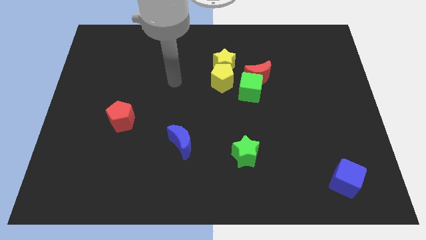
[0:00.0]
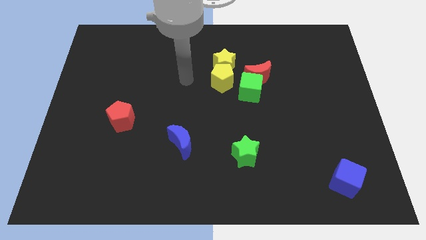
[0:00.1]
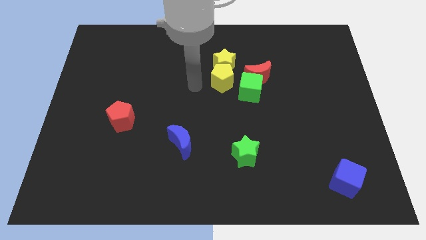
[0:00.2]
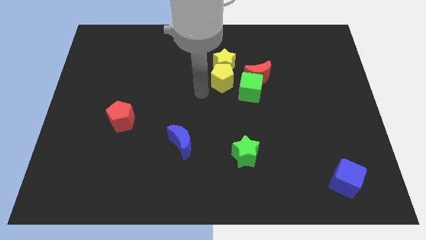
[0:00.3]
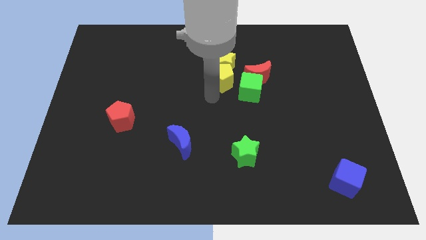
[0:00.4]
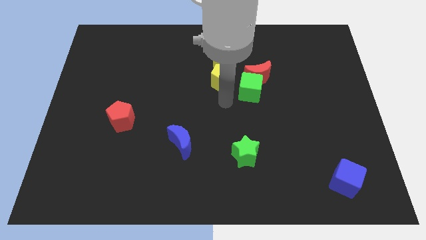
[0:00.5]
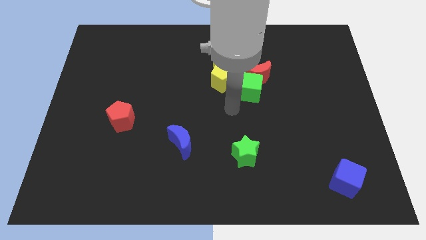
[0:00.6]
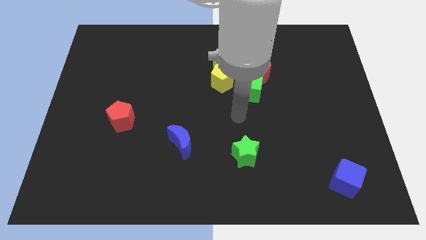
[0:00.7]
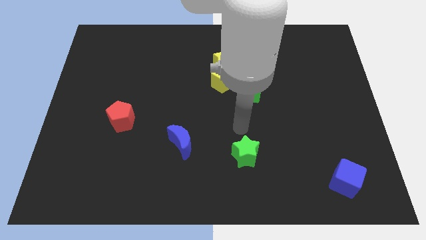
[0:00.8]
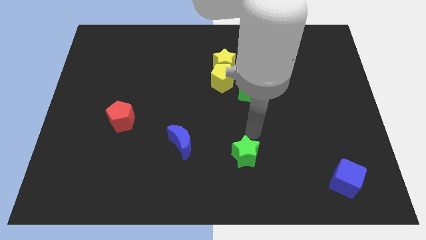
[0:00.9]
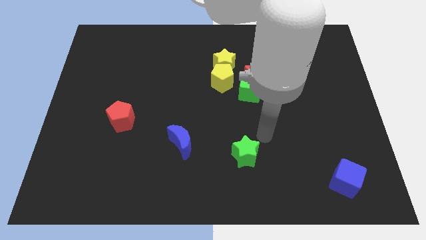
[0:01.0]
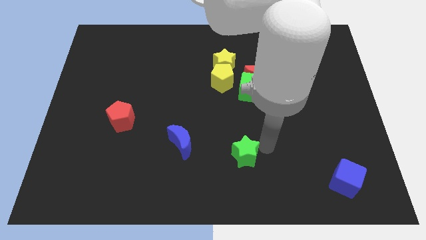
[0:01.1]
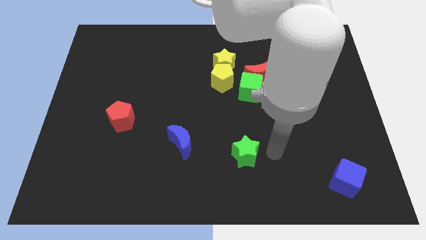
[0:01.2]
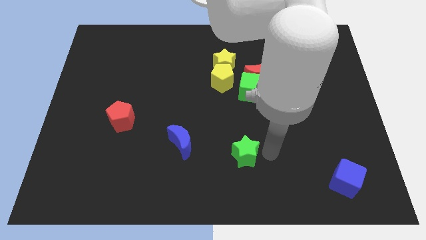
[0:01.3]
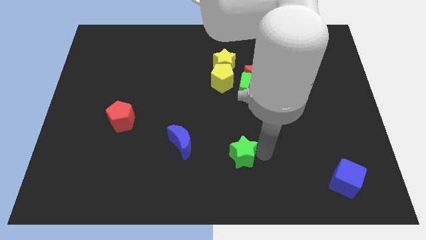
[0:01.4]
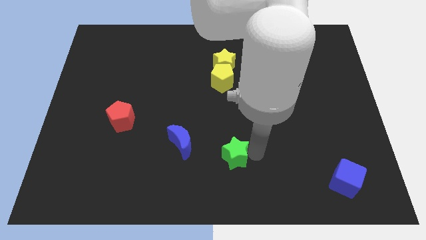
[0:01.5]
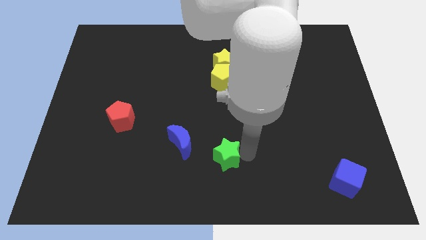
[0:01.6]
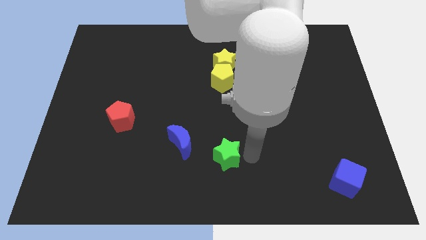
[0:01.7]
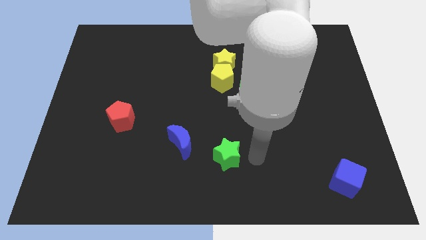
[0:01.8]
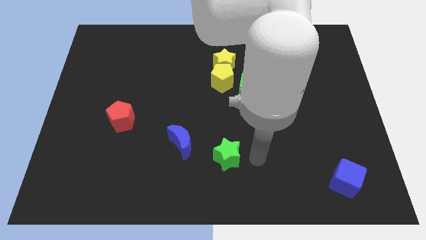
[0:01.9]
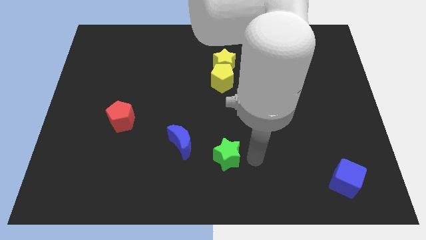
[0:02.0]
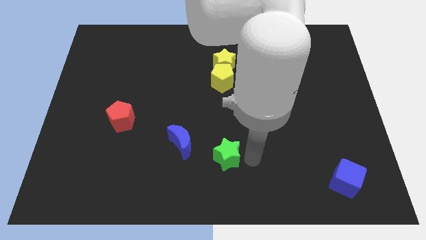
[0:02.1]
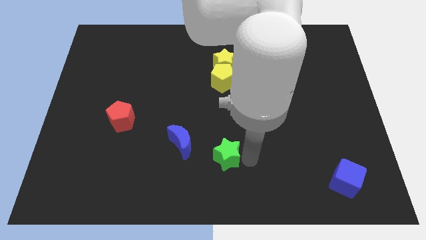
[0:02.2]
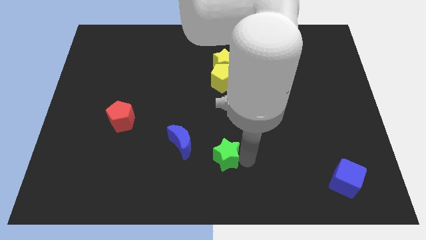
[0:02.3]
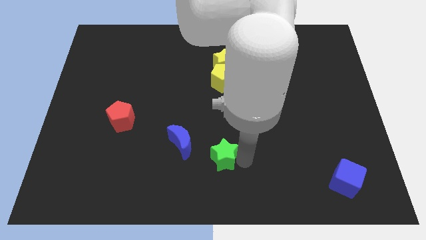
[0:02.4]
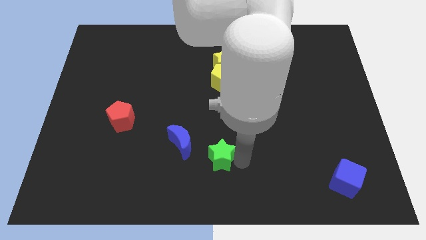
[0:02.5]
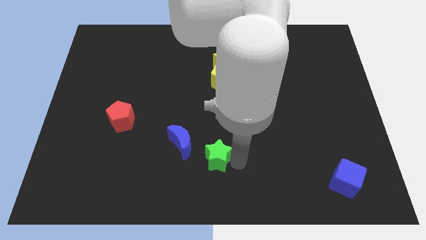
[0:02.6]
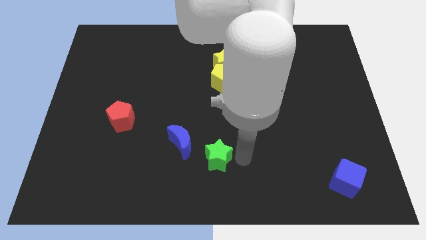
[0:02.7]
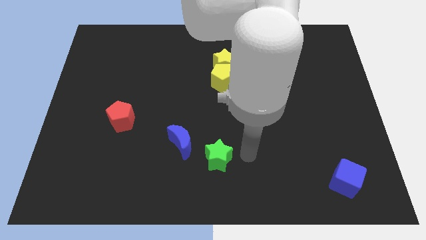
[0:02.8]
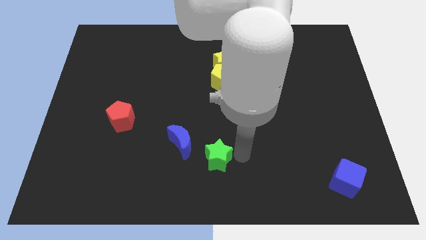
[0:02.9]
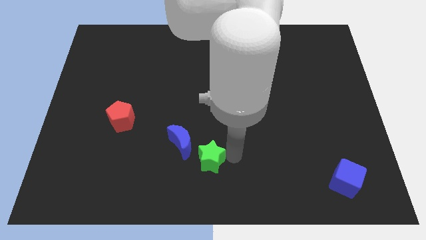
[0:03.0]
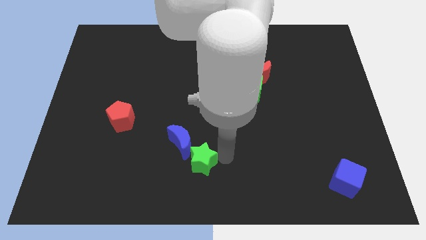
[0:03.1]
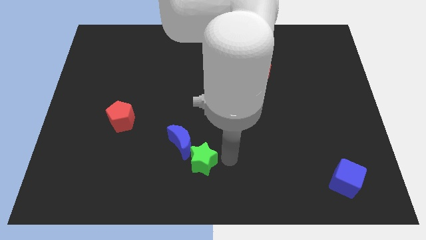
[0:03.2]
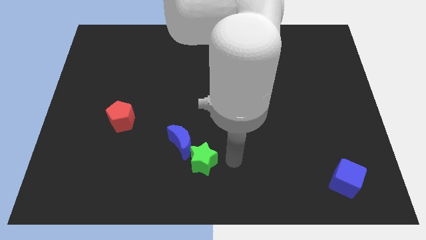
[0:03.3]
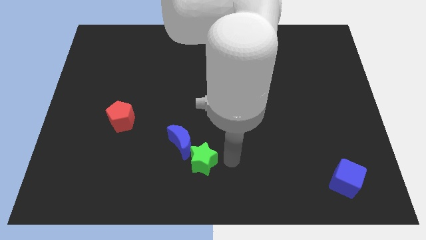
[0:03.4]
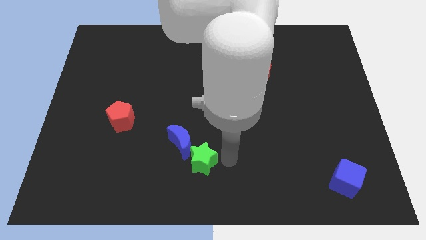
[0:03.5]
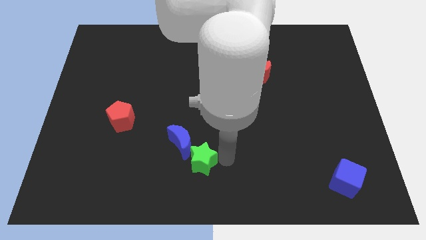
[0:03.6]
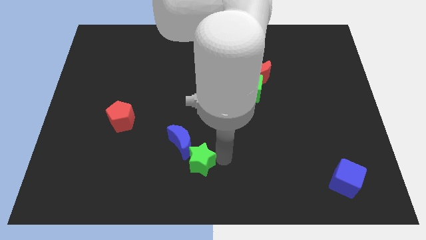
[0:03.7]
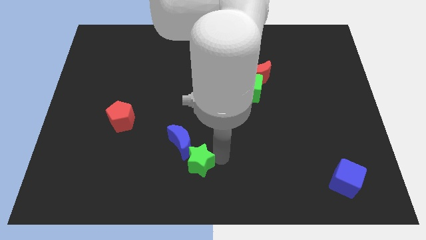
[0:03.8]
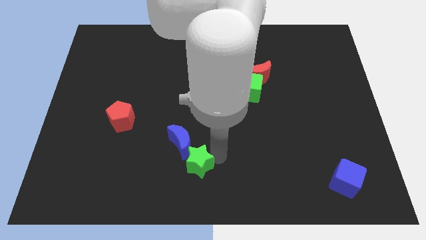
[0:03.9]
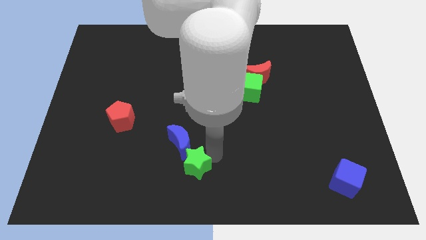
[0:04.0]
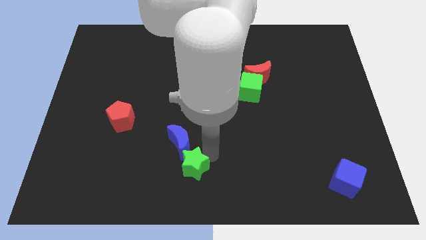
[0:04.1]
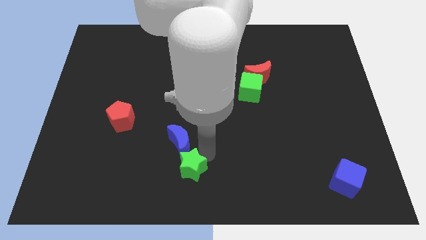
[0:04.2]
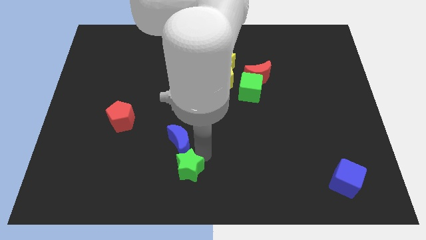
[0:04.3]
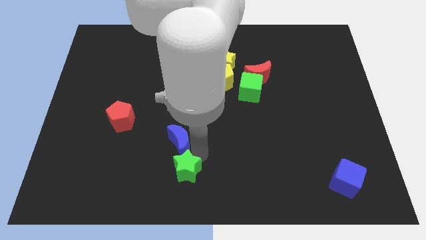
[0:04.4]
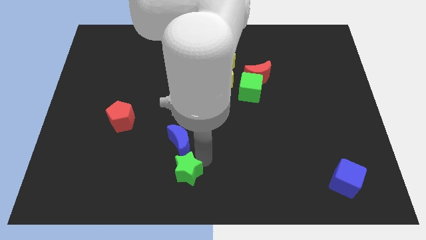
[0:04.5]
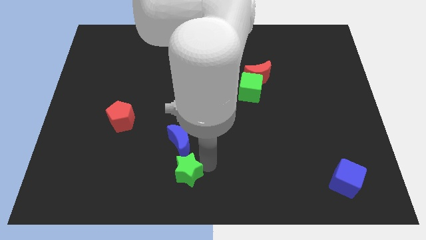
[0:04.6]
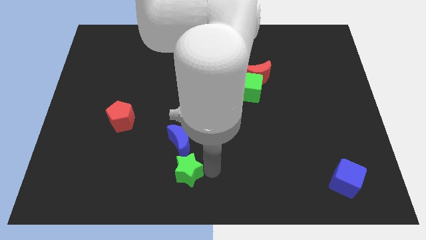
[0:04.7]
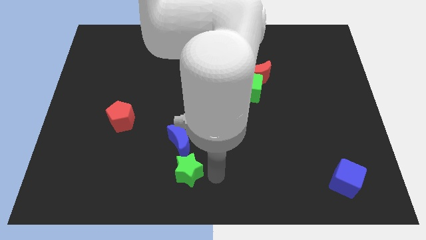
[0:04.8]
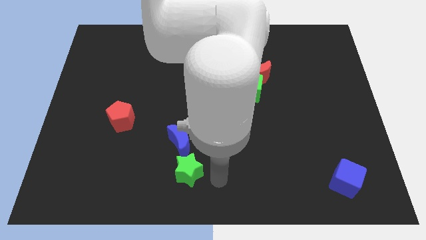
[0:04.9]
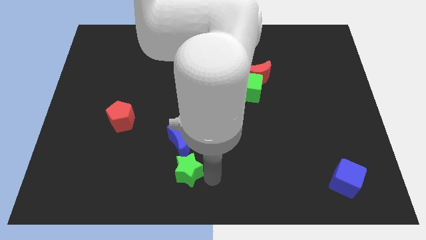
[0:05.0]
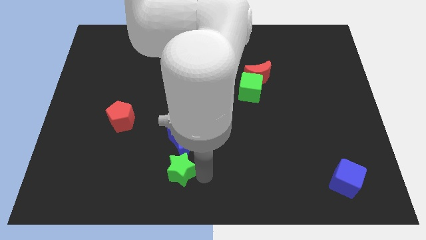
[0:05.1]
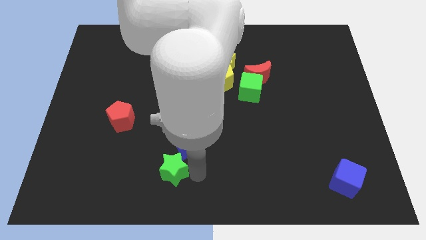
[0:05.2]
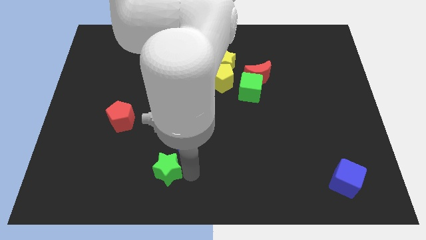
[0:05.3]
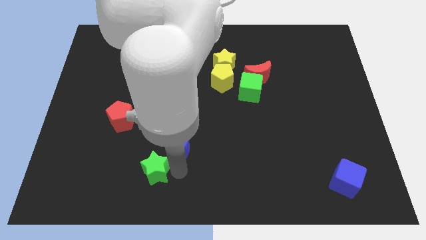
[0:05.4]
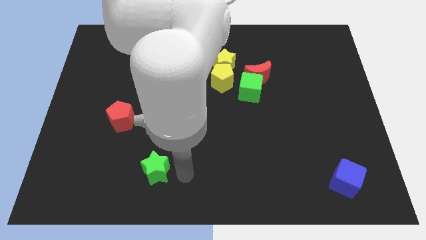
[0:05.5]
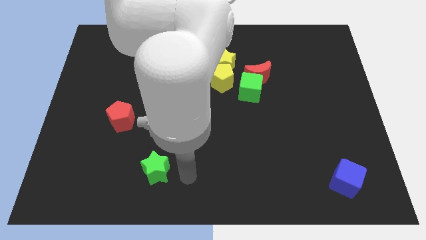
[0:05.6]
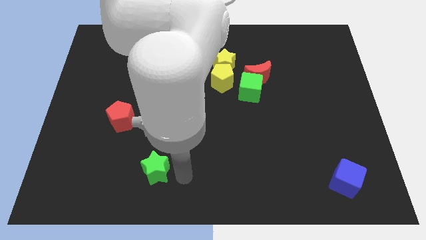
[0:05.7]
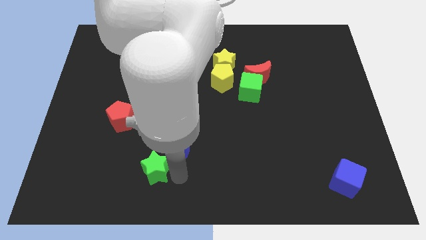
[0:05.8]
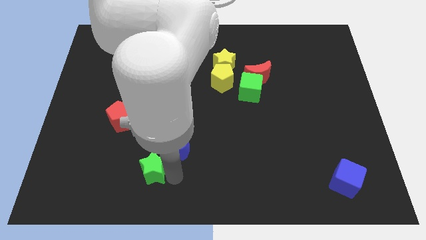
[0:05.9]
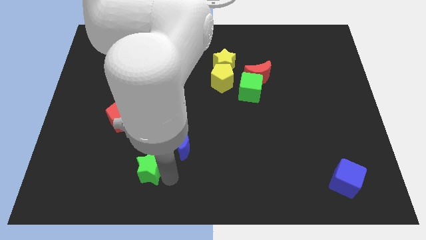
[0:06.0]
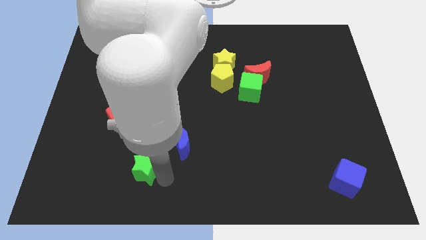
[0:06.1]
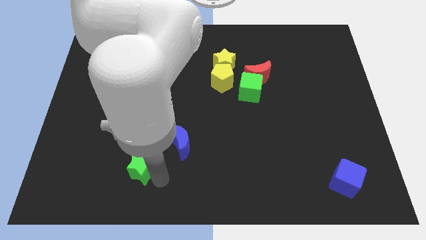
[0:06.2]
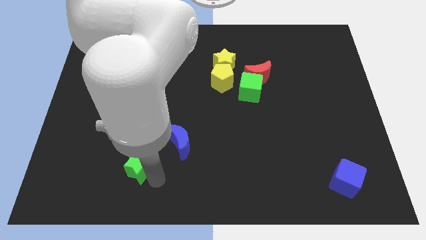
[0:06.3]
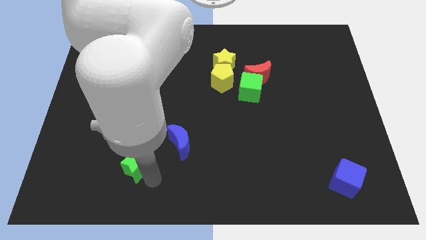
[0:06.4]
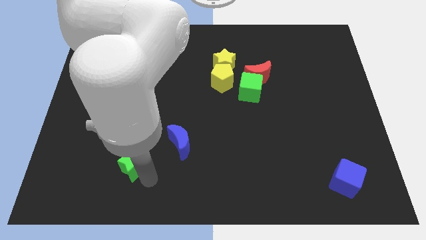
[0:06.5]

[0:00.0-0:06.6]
push the green star below the red pentagon

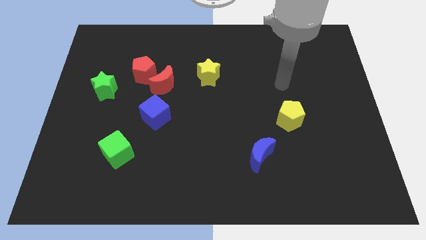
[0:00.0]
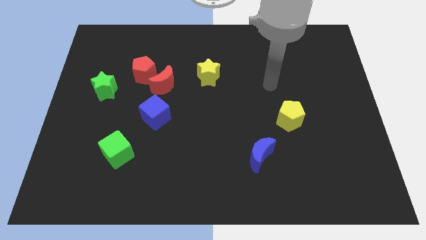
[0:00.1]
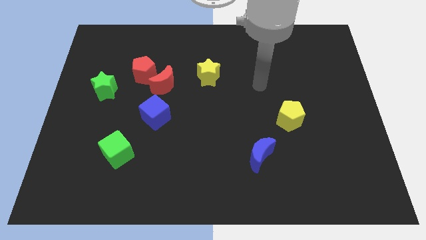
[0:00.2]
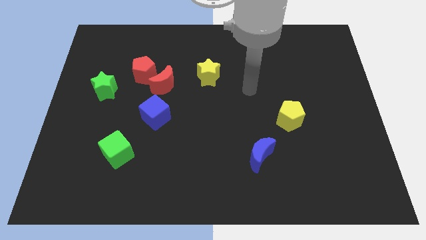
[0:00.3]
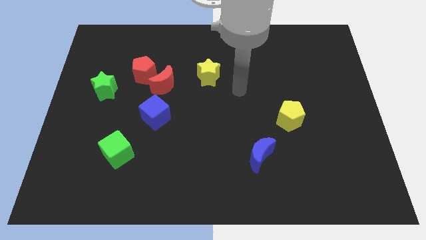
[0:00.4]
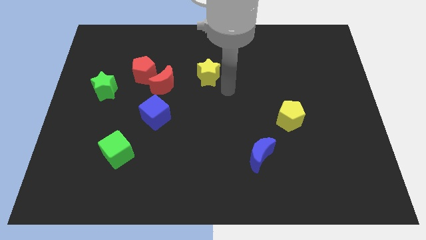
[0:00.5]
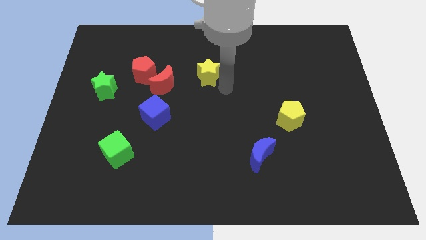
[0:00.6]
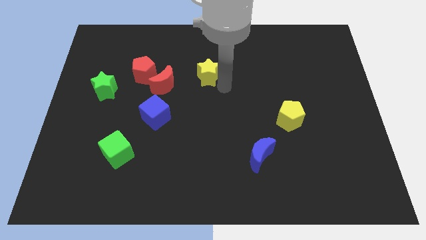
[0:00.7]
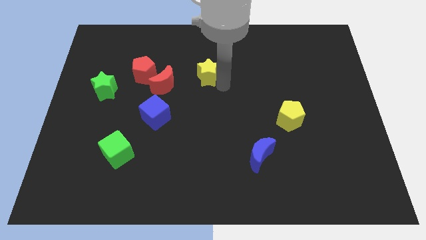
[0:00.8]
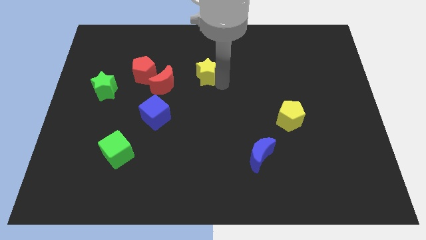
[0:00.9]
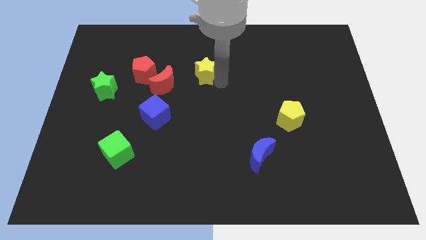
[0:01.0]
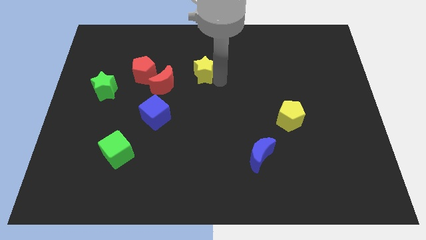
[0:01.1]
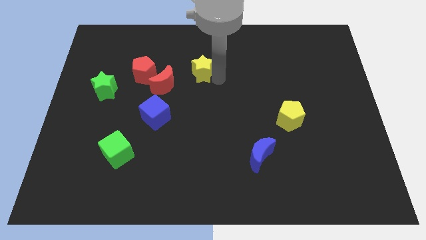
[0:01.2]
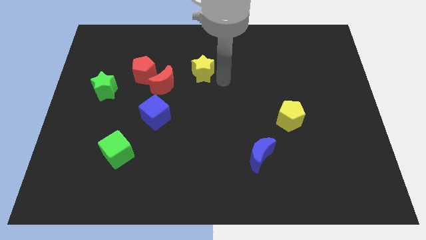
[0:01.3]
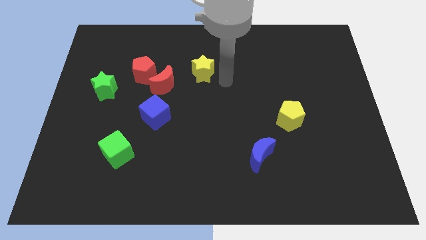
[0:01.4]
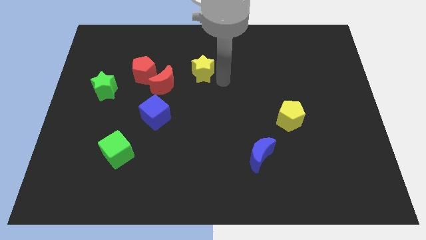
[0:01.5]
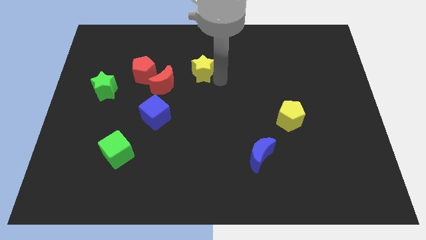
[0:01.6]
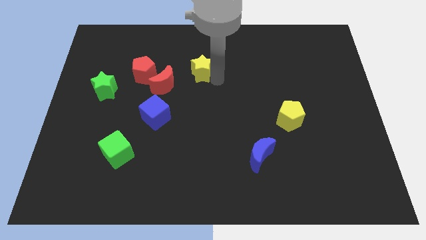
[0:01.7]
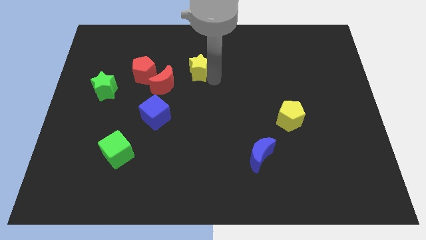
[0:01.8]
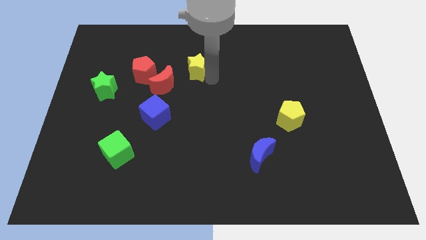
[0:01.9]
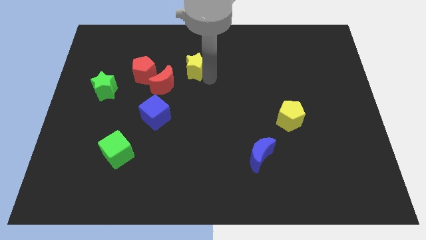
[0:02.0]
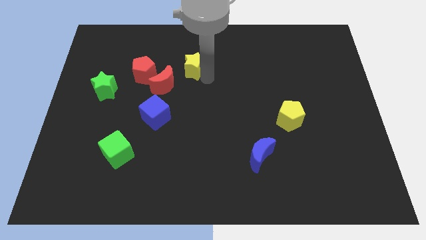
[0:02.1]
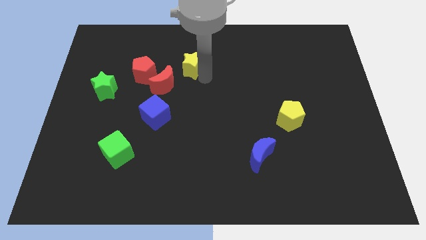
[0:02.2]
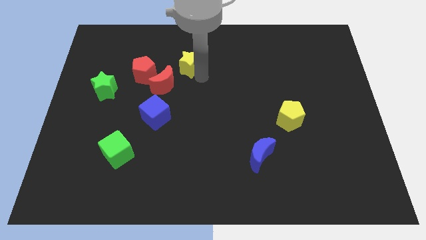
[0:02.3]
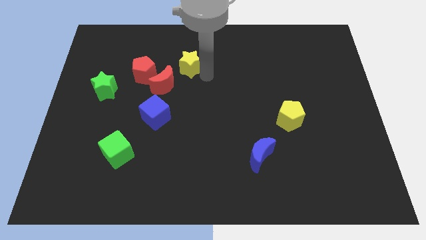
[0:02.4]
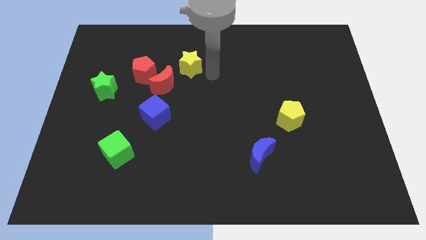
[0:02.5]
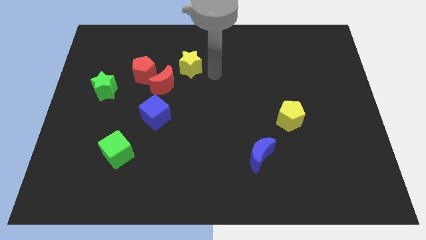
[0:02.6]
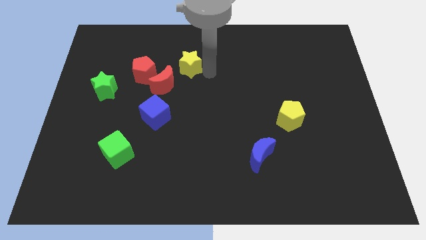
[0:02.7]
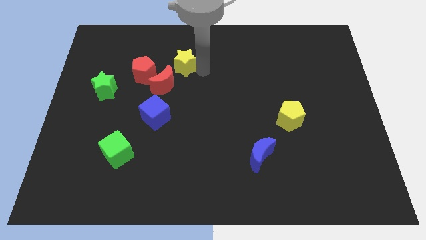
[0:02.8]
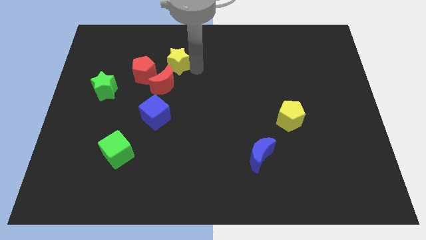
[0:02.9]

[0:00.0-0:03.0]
slide the yellow star to the top right of the red pentagon
